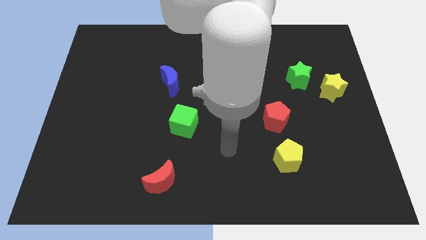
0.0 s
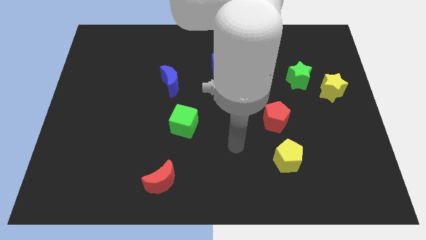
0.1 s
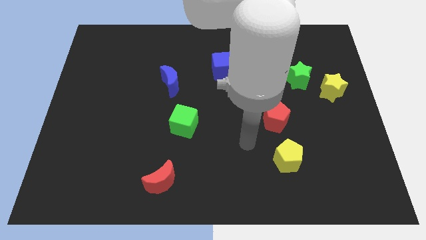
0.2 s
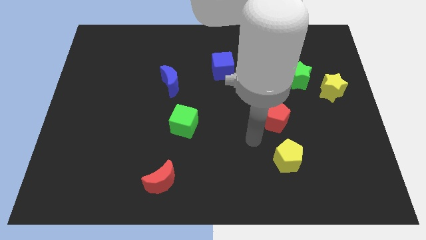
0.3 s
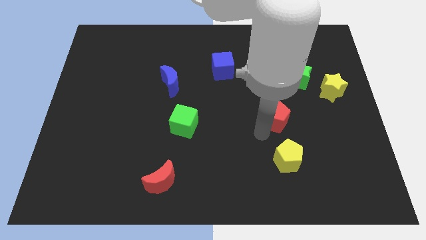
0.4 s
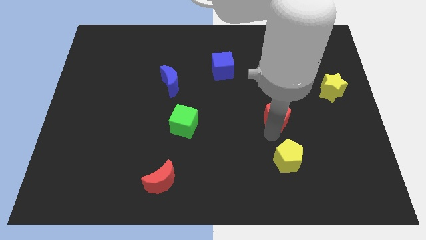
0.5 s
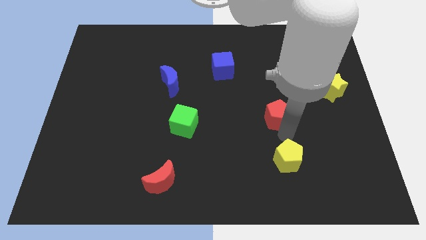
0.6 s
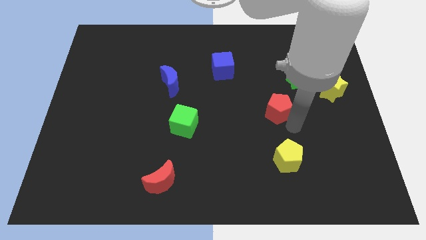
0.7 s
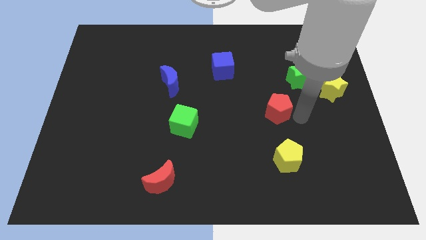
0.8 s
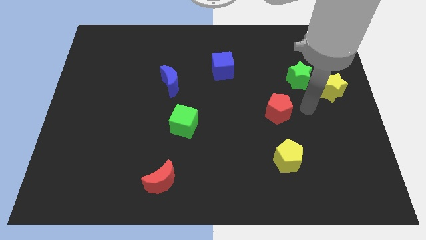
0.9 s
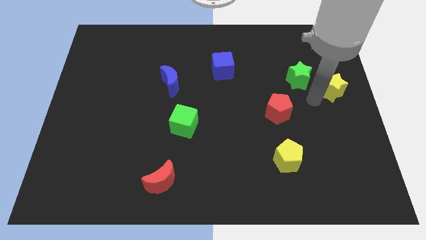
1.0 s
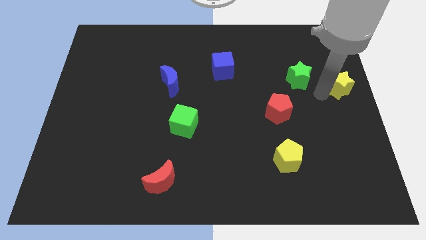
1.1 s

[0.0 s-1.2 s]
pull the green star apart from the yellow star

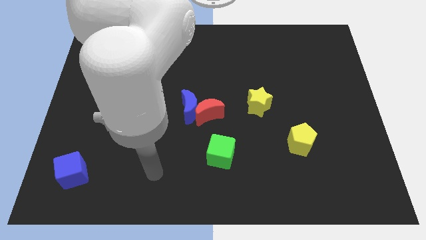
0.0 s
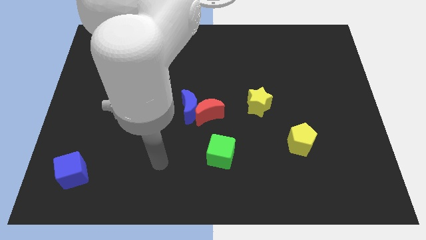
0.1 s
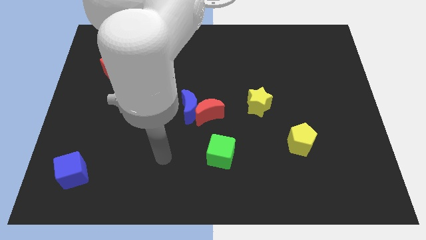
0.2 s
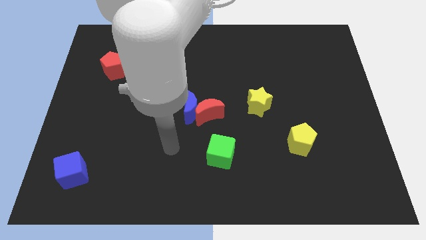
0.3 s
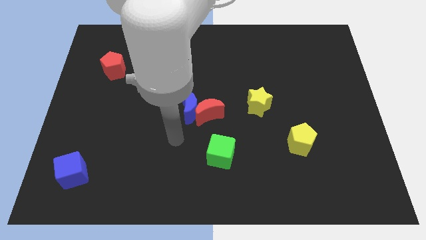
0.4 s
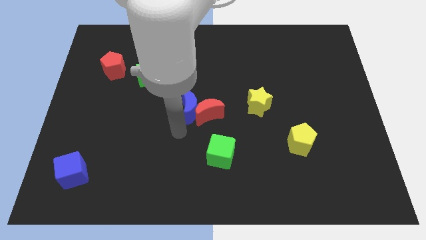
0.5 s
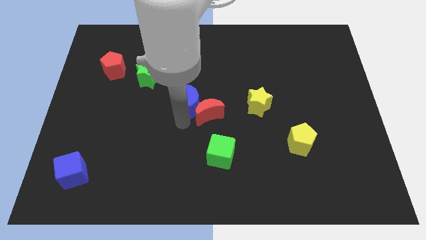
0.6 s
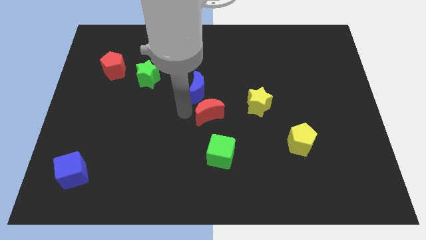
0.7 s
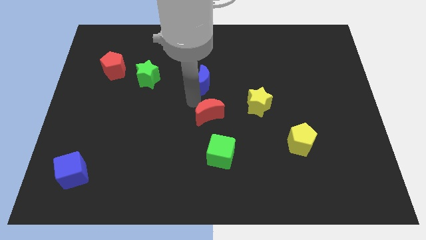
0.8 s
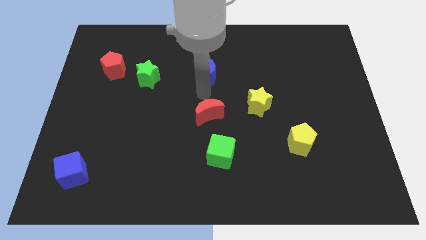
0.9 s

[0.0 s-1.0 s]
pull the red moon apart from the blue moon

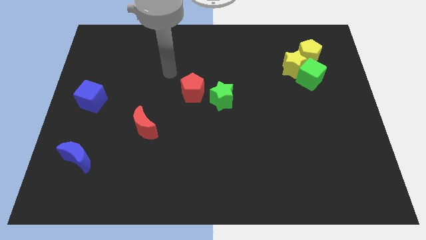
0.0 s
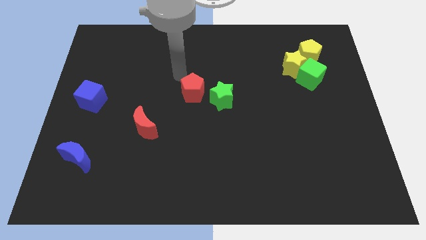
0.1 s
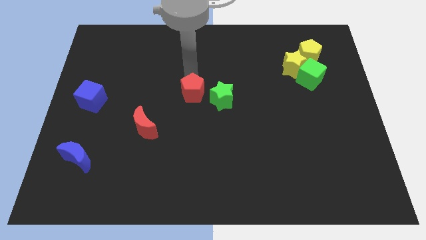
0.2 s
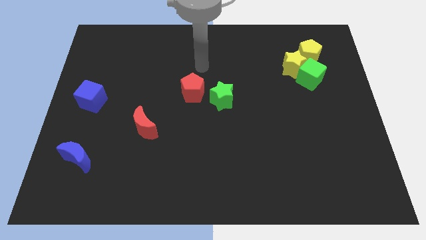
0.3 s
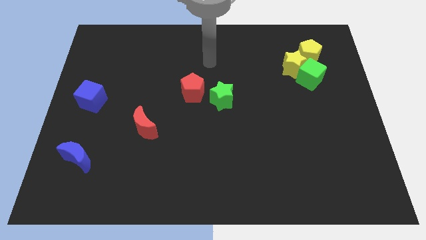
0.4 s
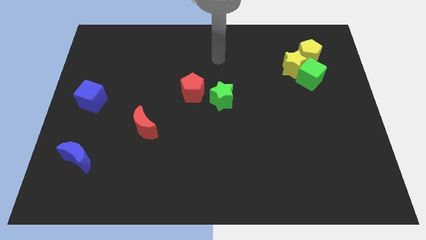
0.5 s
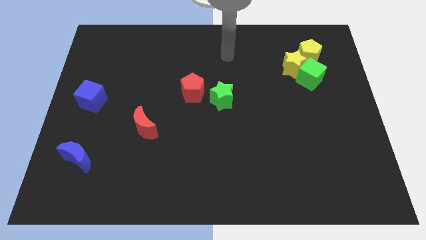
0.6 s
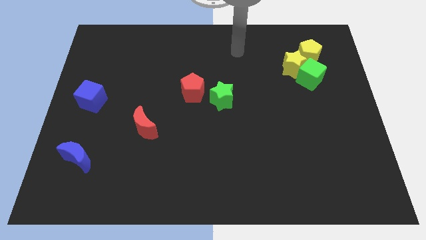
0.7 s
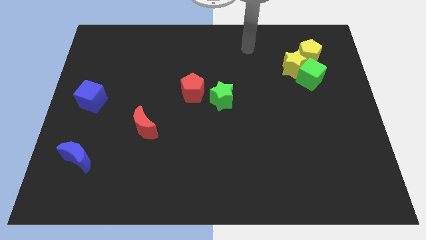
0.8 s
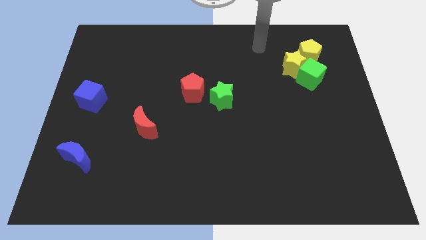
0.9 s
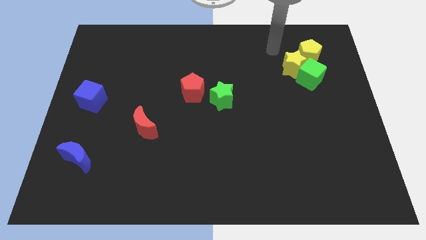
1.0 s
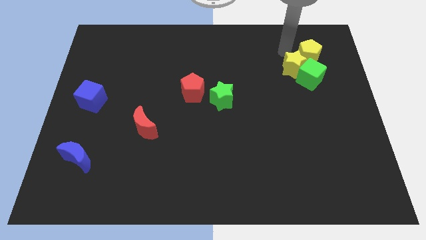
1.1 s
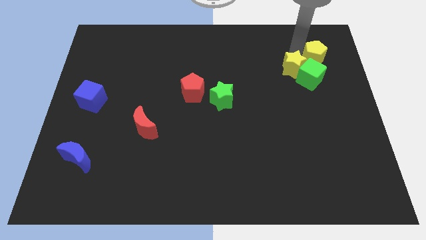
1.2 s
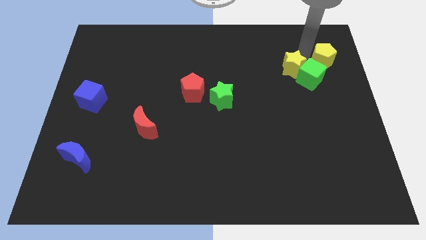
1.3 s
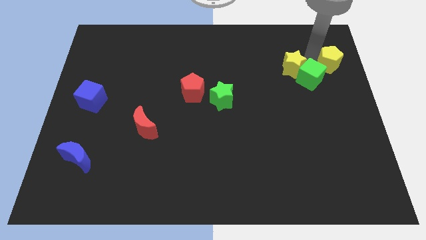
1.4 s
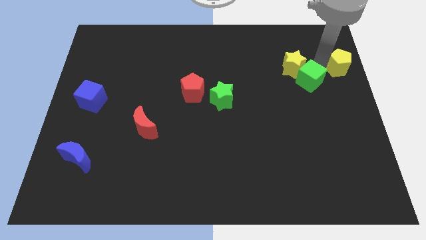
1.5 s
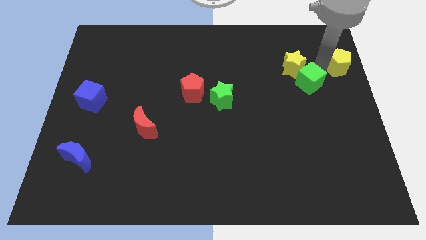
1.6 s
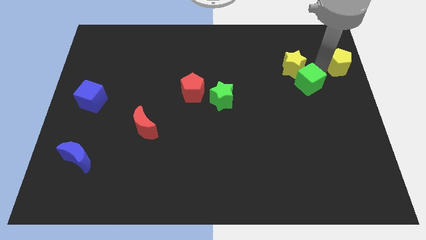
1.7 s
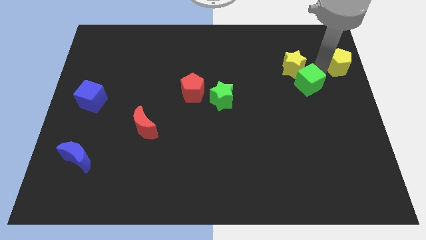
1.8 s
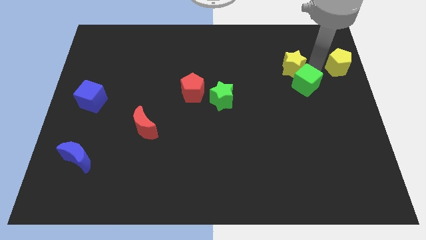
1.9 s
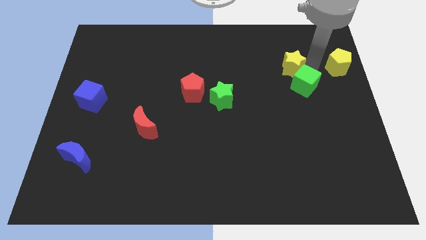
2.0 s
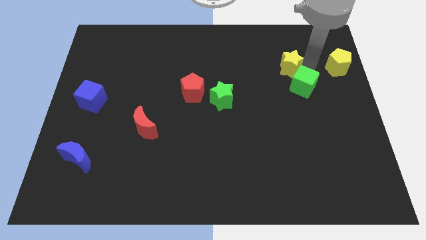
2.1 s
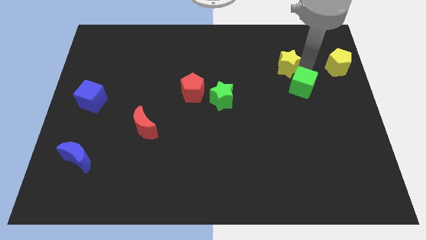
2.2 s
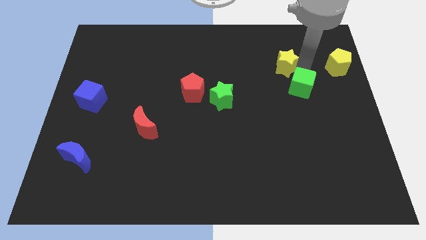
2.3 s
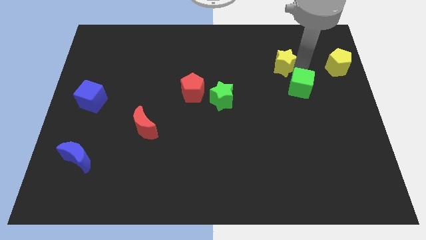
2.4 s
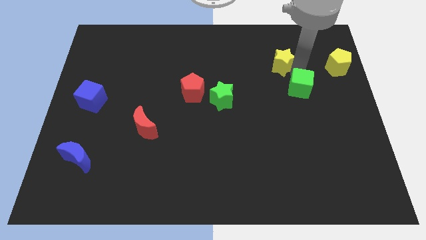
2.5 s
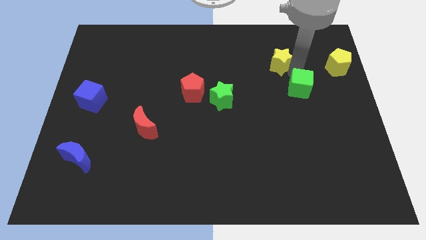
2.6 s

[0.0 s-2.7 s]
pull the yellow star apart from the green cube and yellow pentagon

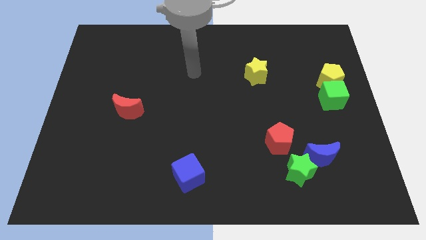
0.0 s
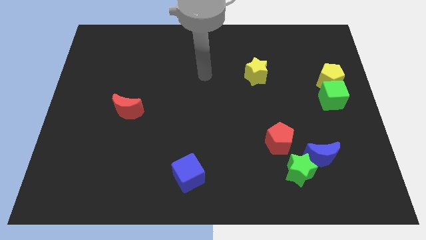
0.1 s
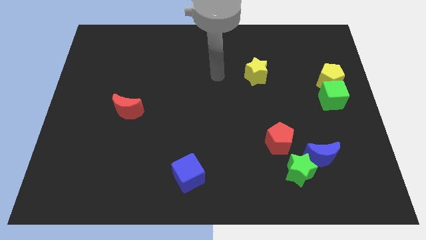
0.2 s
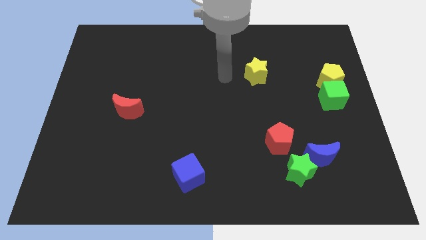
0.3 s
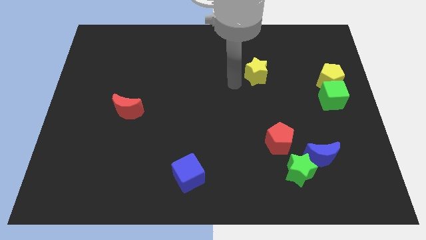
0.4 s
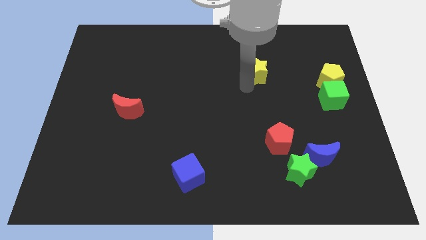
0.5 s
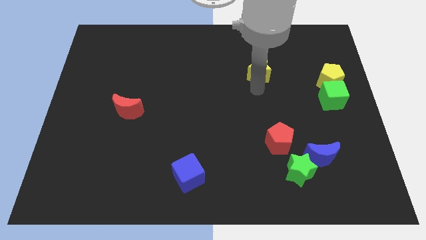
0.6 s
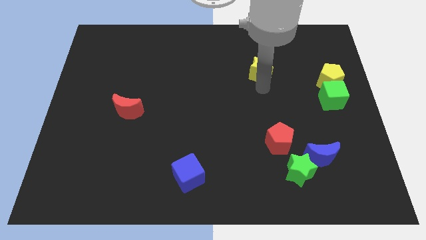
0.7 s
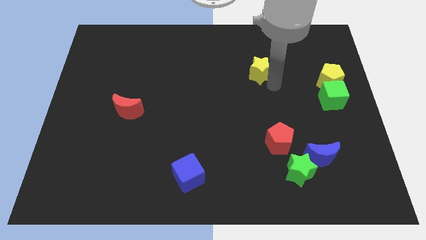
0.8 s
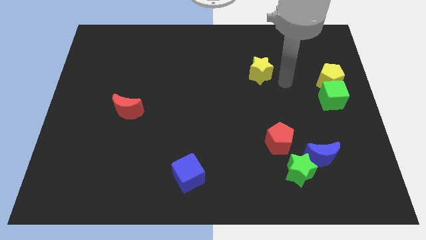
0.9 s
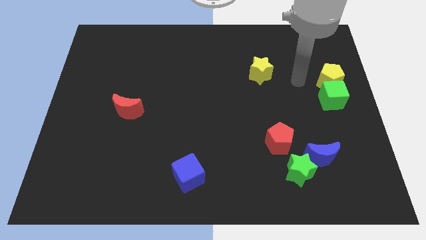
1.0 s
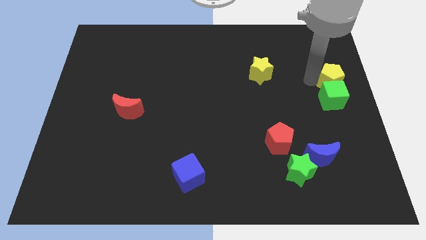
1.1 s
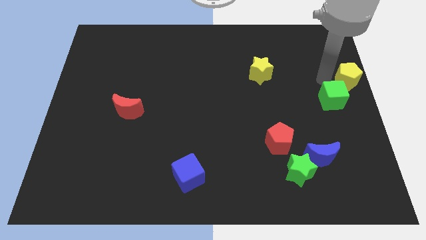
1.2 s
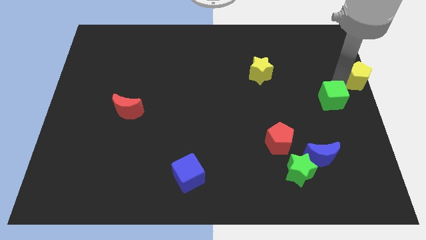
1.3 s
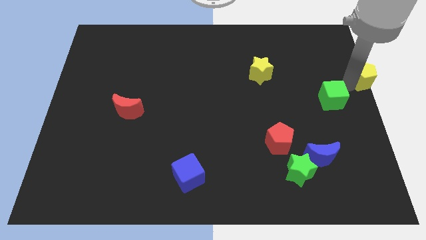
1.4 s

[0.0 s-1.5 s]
separate the green cube from the yellow pentagon

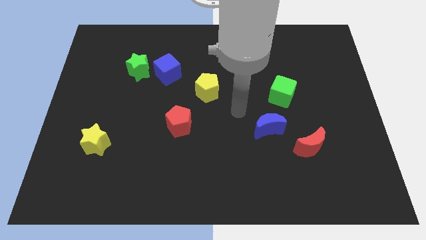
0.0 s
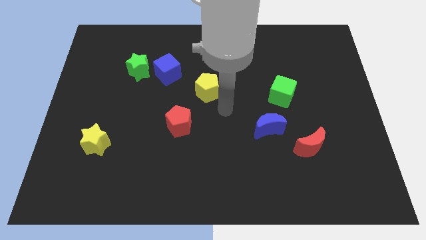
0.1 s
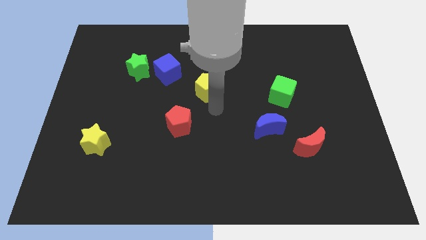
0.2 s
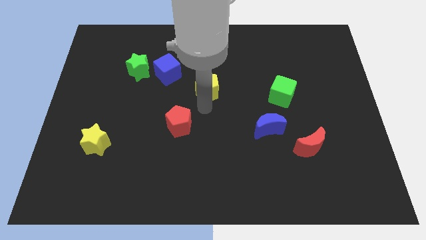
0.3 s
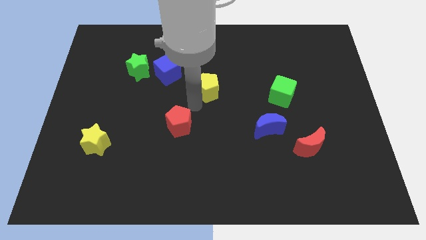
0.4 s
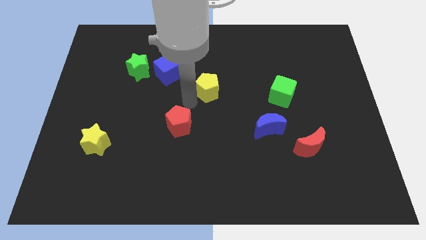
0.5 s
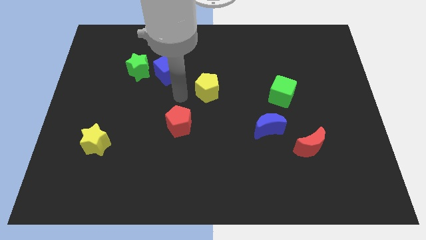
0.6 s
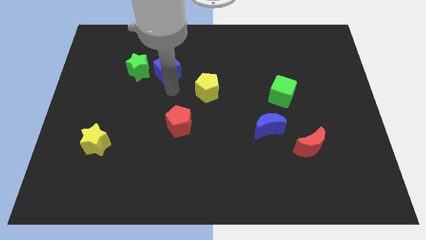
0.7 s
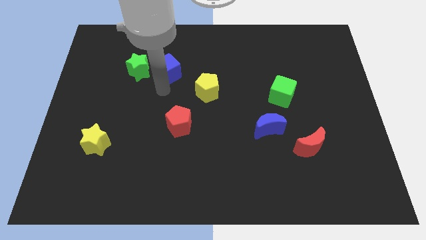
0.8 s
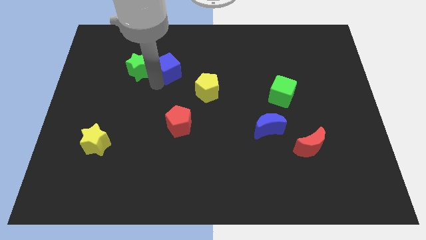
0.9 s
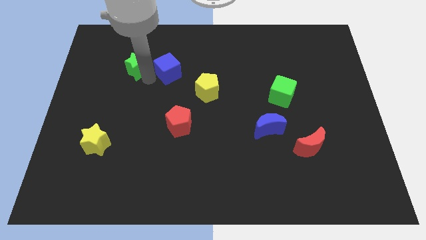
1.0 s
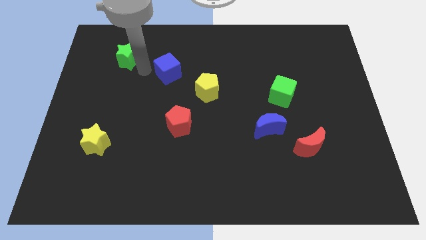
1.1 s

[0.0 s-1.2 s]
move the blue cube away from the green star

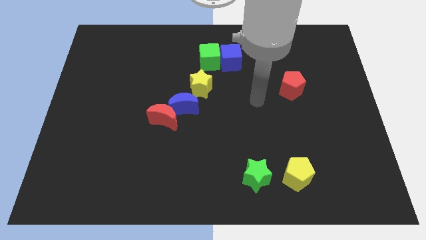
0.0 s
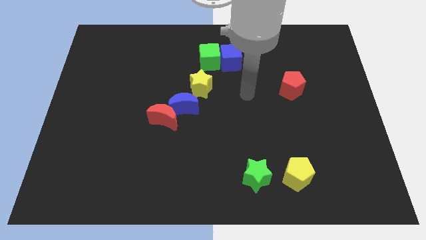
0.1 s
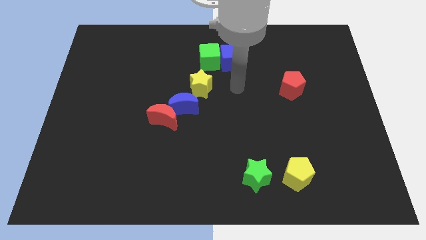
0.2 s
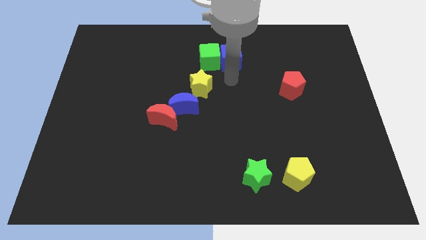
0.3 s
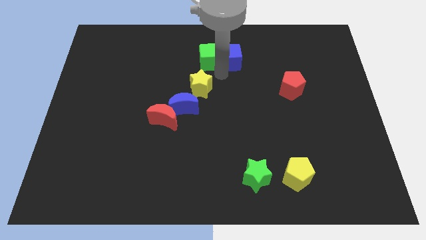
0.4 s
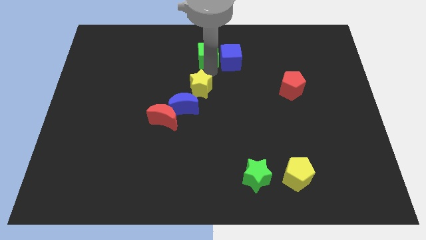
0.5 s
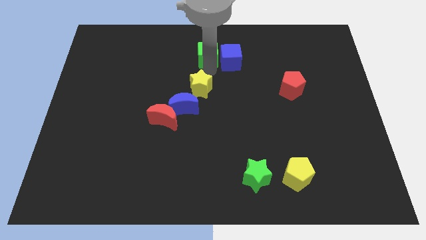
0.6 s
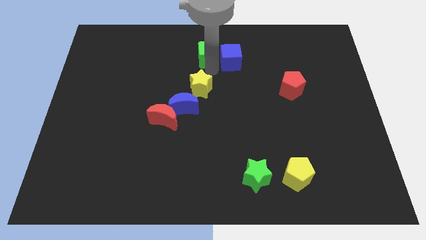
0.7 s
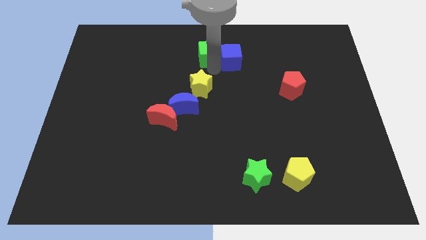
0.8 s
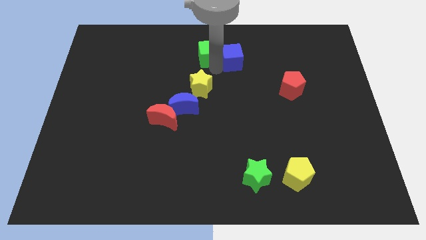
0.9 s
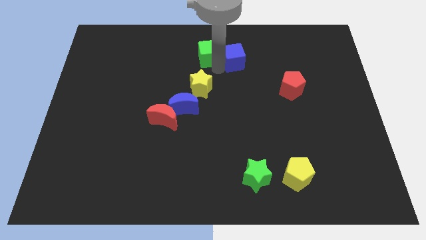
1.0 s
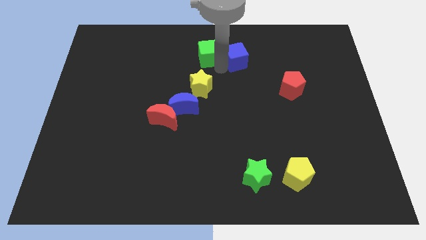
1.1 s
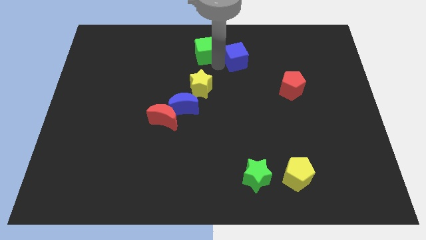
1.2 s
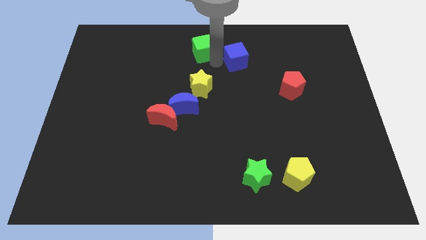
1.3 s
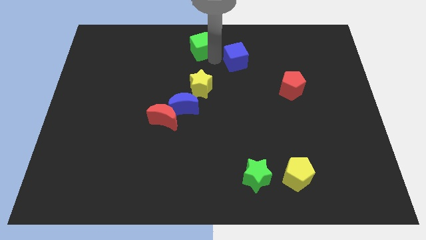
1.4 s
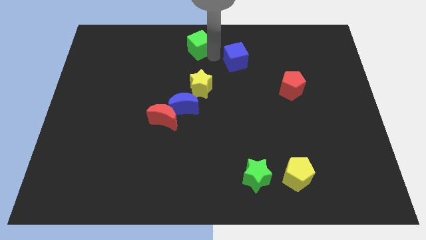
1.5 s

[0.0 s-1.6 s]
separate the blue cube from the green cube

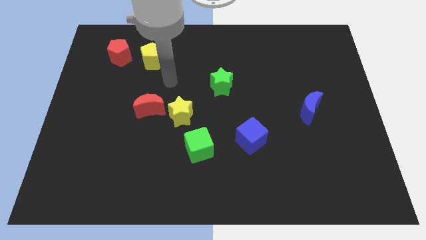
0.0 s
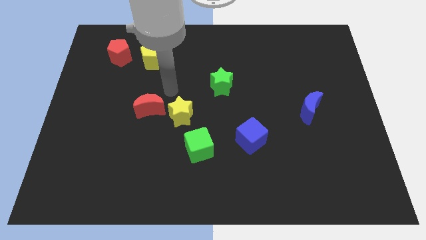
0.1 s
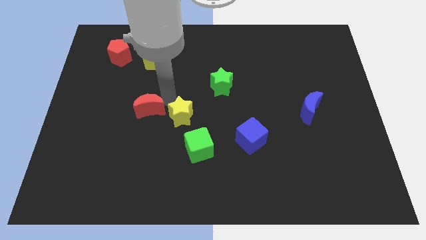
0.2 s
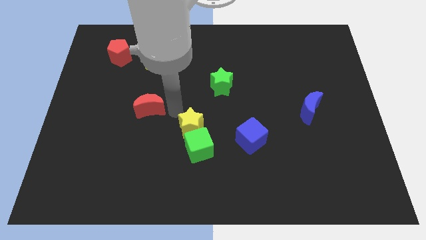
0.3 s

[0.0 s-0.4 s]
move the red moon away from the yellow star
